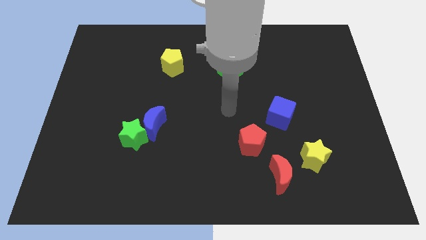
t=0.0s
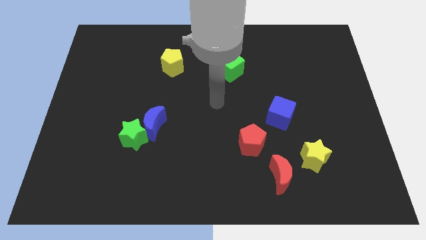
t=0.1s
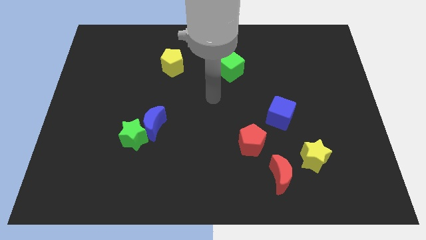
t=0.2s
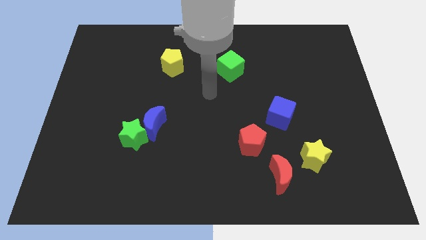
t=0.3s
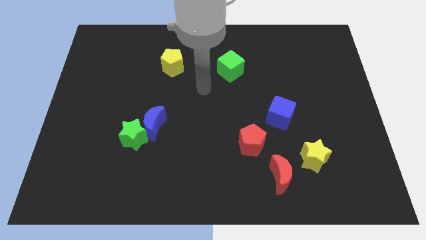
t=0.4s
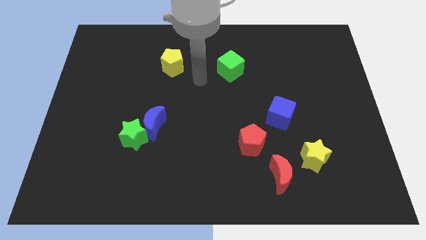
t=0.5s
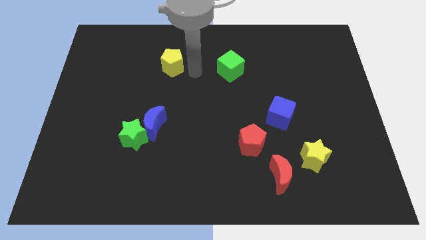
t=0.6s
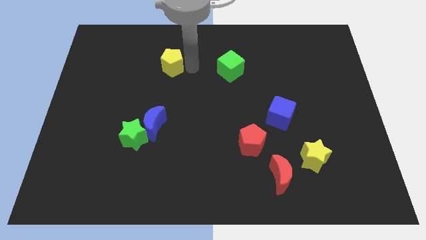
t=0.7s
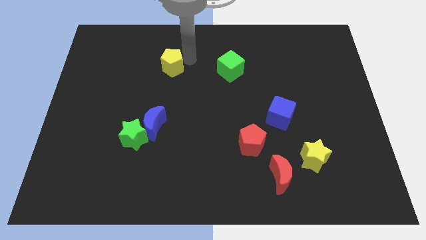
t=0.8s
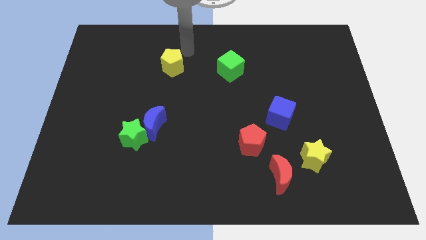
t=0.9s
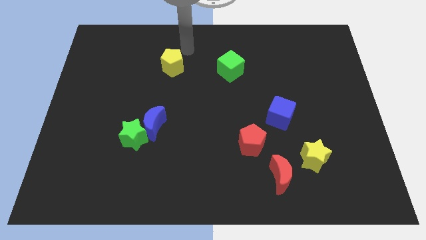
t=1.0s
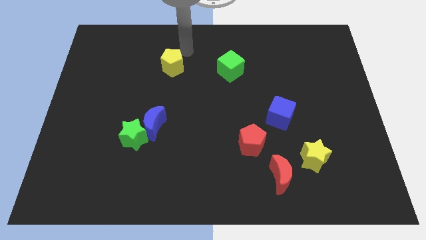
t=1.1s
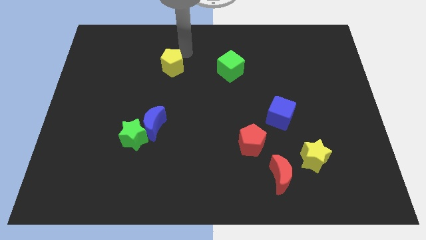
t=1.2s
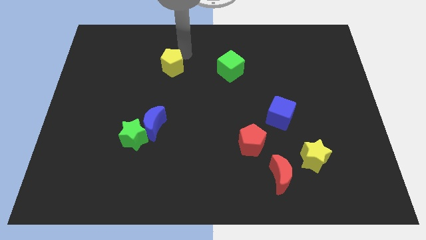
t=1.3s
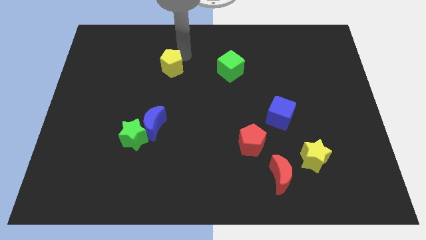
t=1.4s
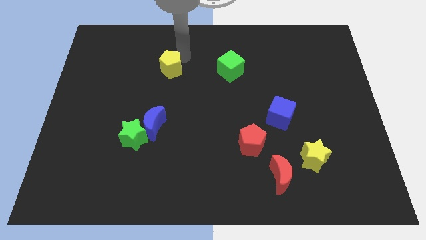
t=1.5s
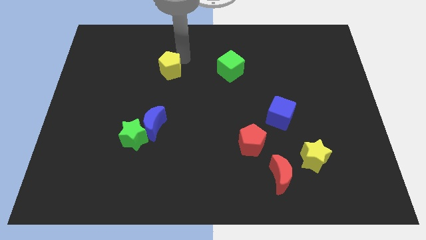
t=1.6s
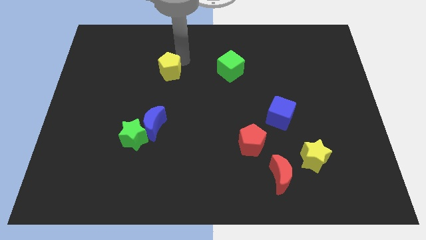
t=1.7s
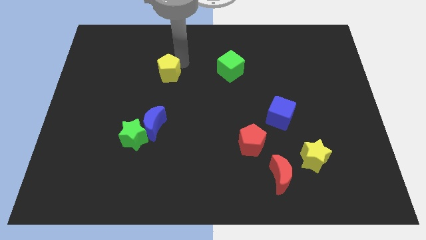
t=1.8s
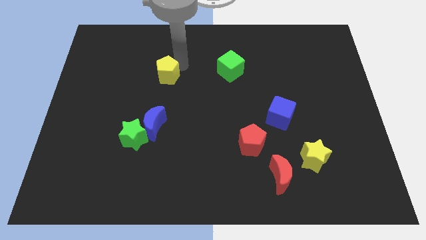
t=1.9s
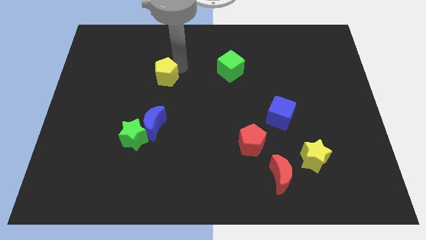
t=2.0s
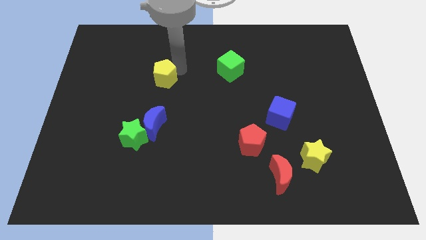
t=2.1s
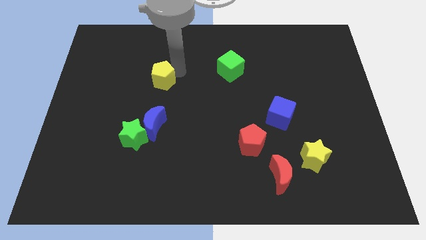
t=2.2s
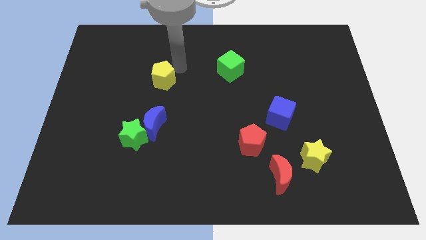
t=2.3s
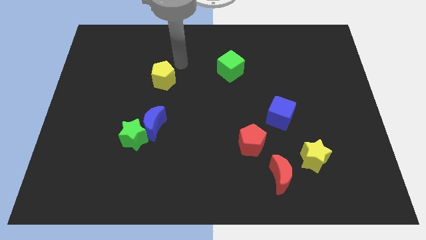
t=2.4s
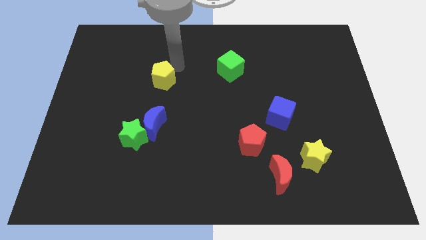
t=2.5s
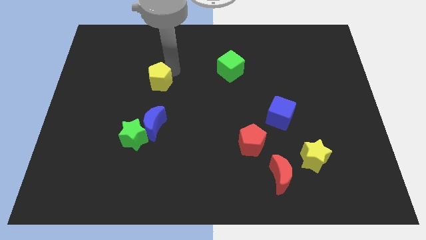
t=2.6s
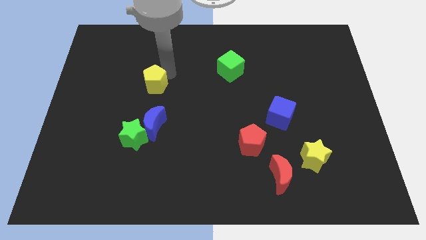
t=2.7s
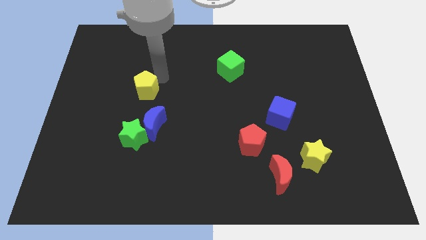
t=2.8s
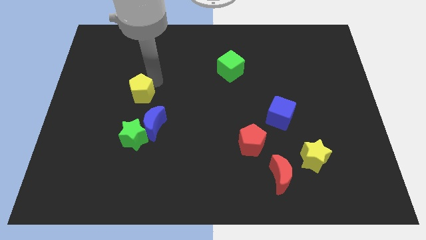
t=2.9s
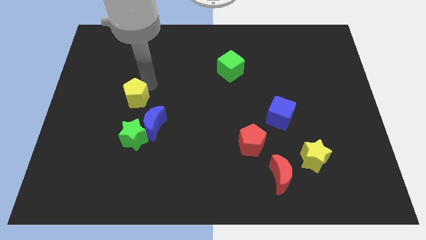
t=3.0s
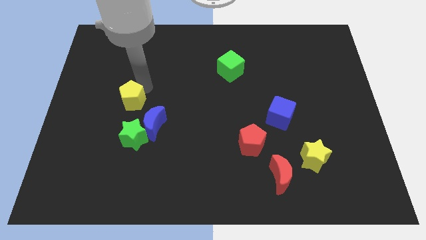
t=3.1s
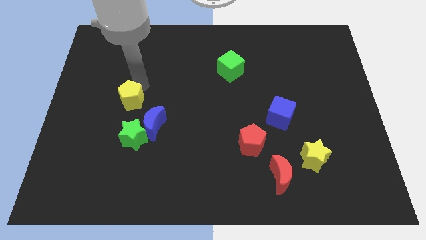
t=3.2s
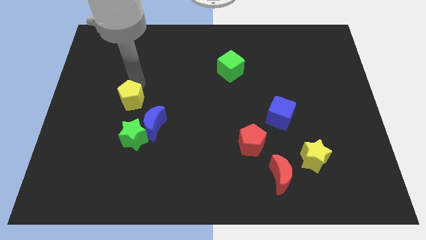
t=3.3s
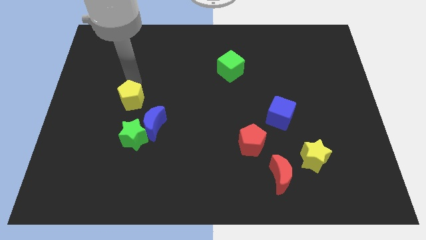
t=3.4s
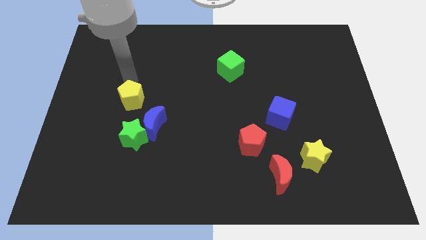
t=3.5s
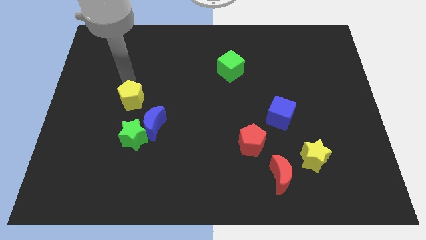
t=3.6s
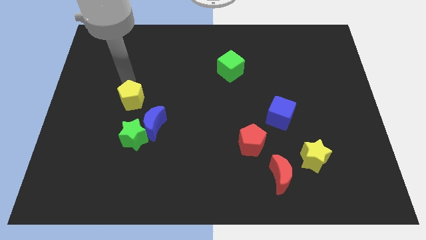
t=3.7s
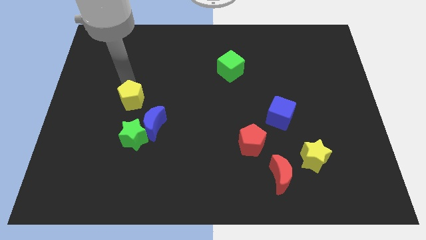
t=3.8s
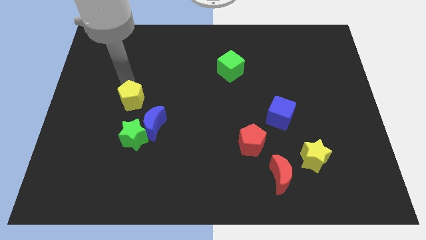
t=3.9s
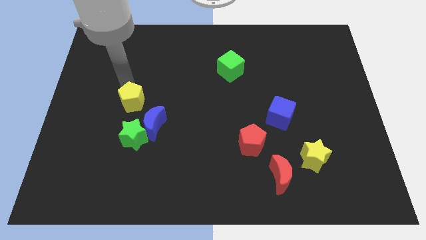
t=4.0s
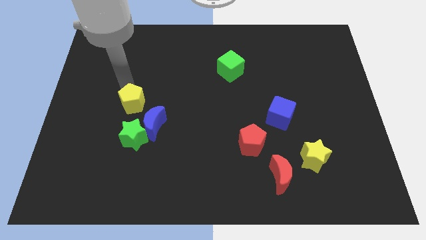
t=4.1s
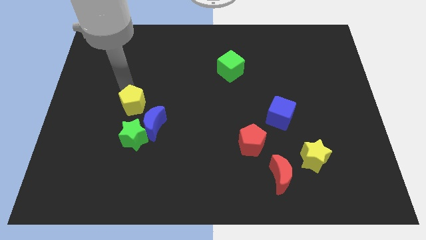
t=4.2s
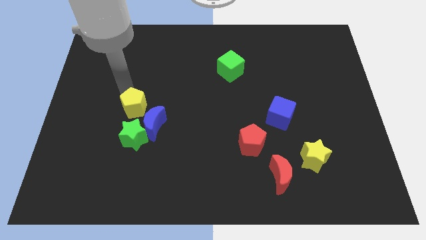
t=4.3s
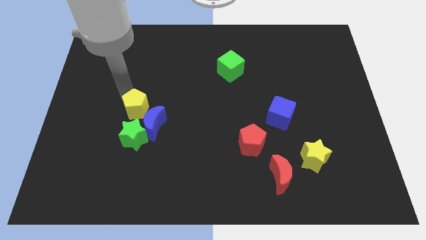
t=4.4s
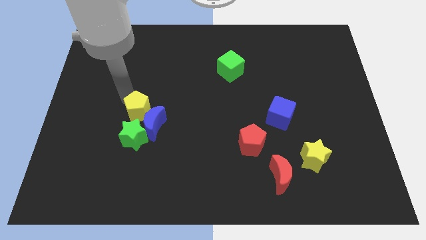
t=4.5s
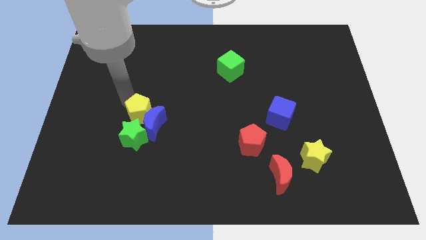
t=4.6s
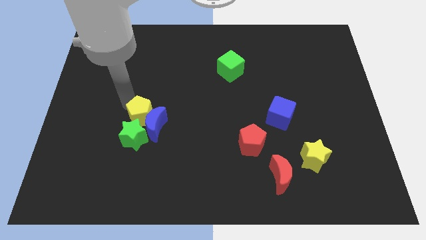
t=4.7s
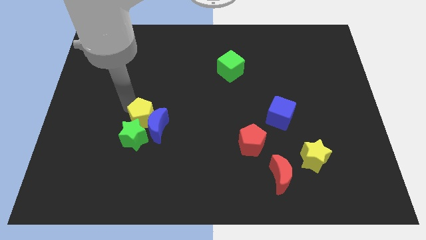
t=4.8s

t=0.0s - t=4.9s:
move the yellow pentagon towards the green star

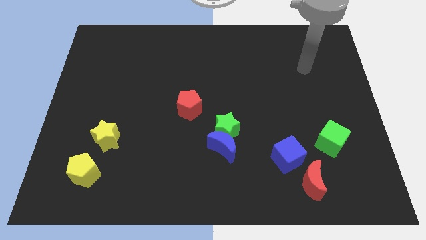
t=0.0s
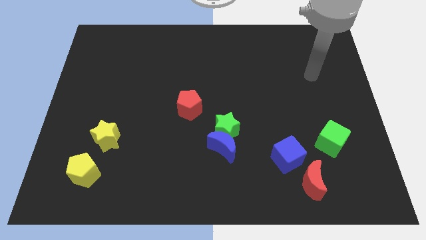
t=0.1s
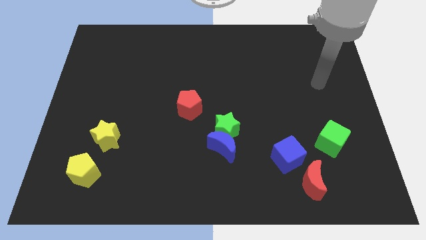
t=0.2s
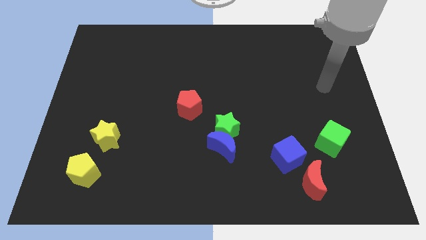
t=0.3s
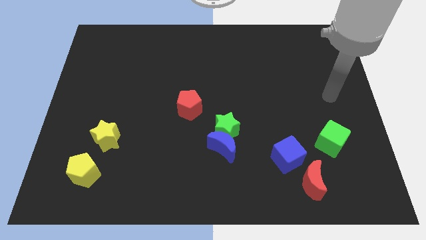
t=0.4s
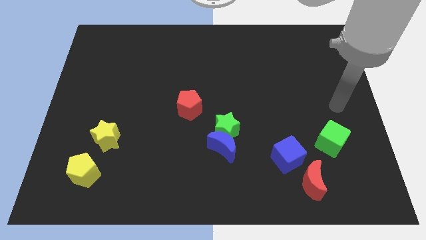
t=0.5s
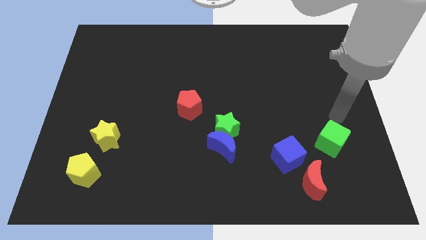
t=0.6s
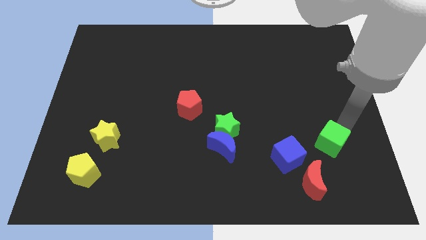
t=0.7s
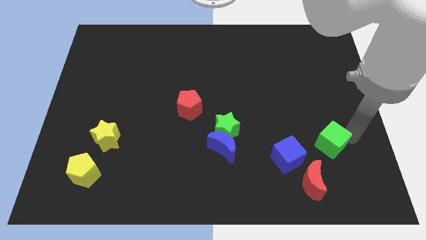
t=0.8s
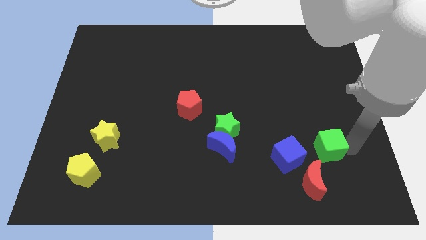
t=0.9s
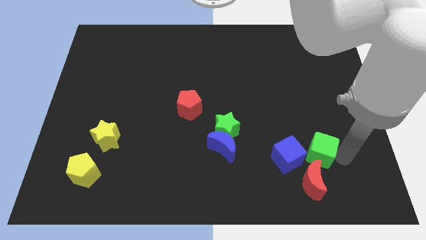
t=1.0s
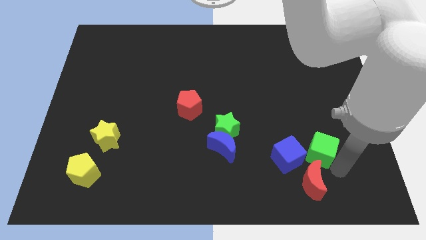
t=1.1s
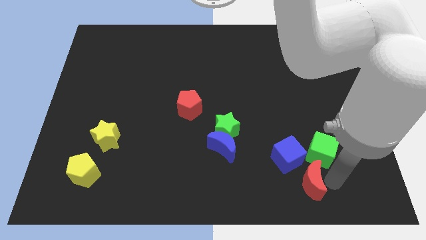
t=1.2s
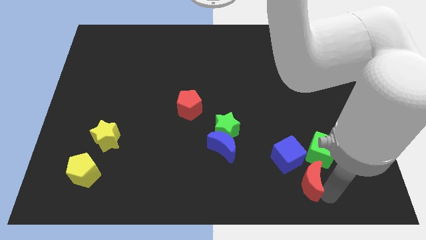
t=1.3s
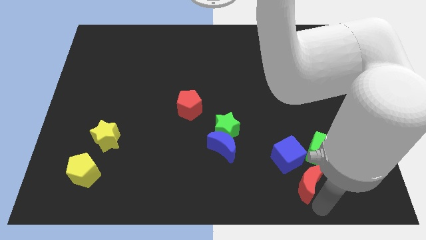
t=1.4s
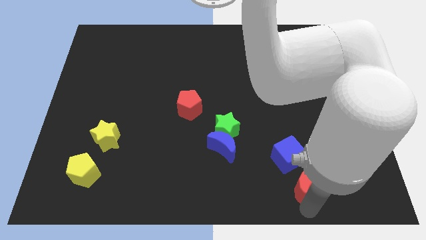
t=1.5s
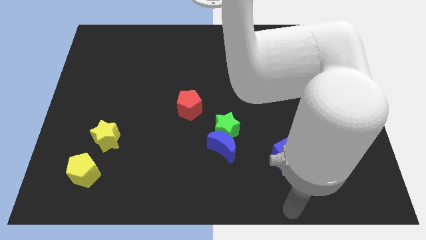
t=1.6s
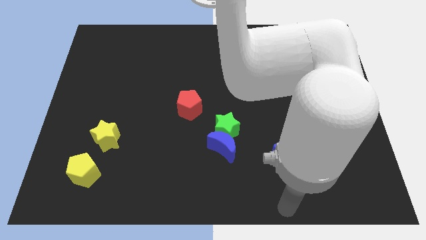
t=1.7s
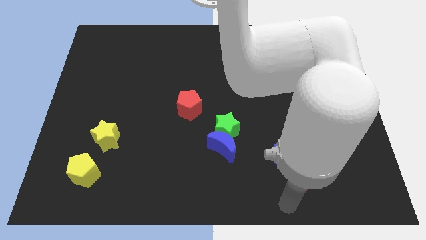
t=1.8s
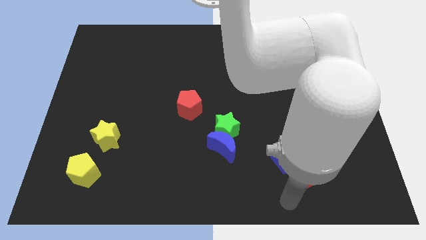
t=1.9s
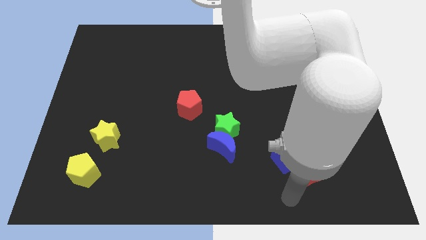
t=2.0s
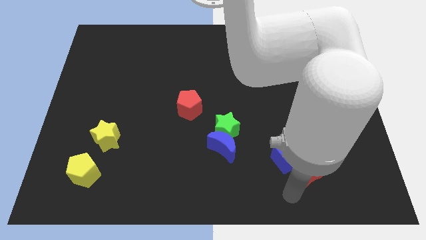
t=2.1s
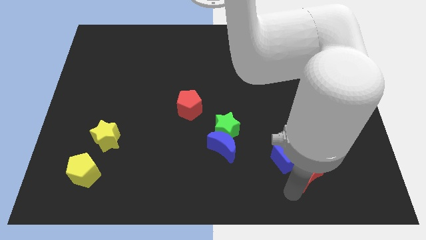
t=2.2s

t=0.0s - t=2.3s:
move the red moon towards the green cube

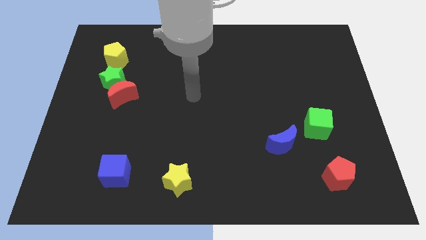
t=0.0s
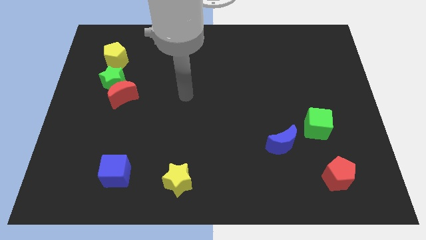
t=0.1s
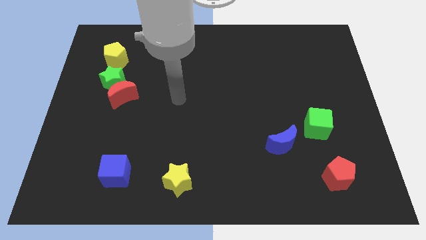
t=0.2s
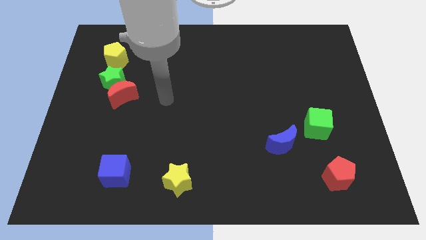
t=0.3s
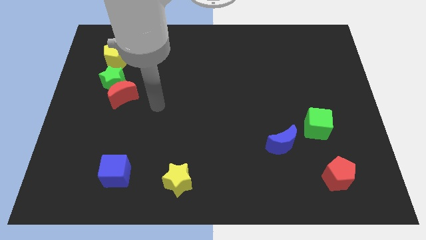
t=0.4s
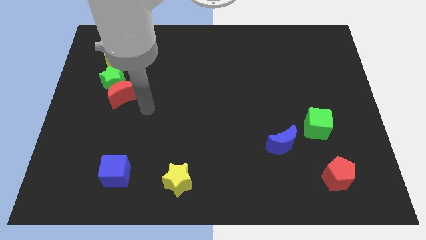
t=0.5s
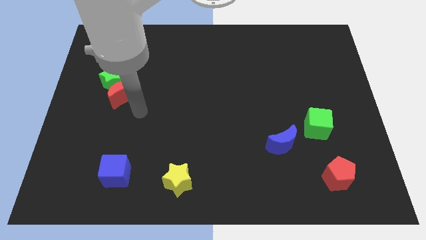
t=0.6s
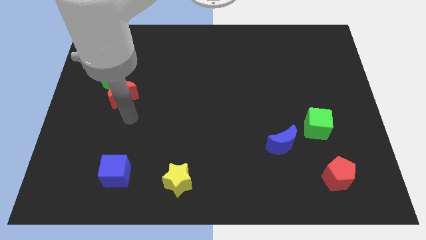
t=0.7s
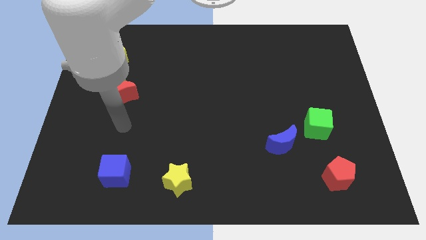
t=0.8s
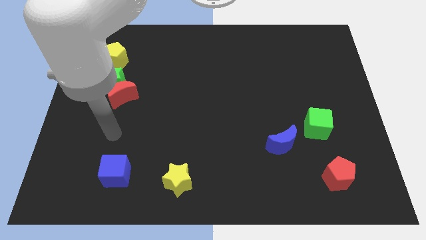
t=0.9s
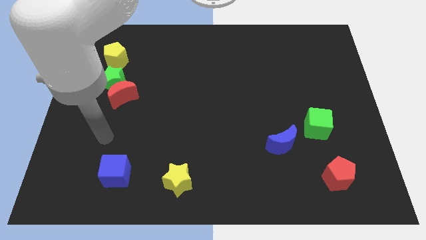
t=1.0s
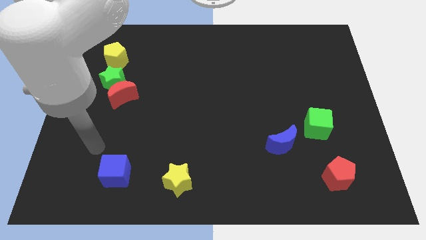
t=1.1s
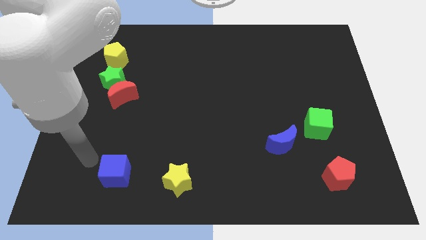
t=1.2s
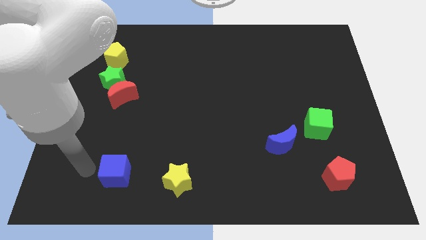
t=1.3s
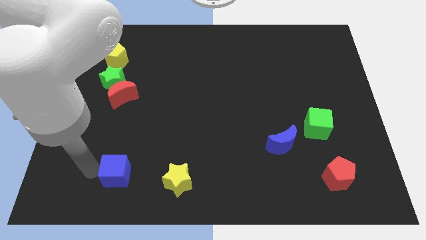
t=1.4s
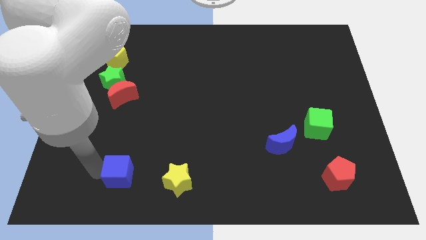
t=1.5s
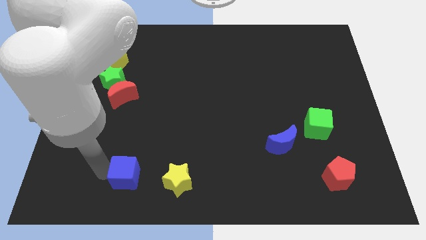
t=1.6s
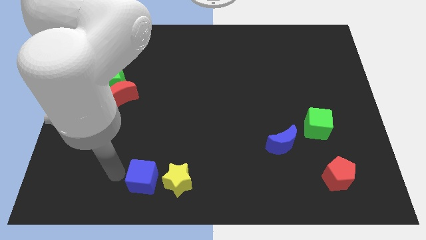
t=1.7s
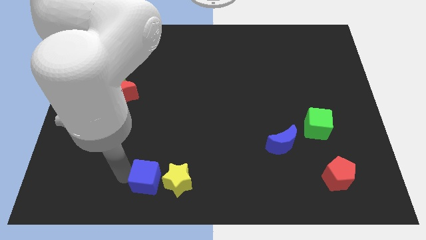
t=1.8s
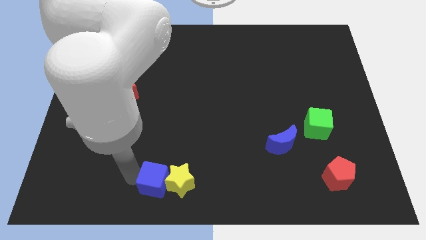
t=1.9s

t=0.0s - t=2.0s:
put the blue cube next to the yellow star
